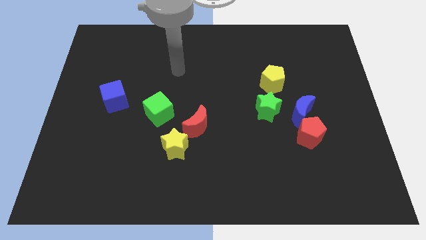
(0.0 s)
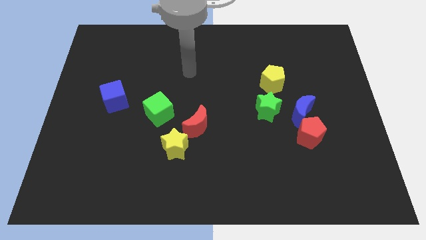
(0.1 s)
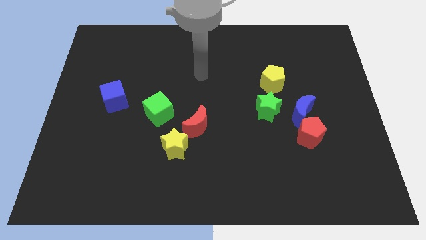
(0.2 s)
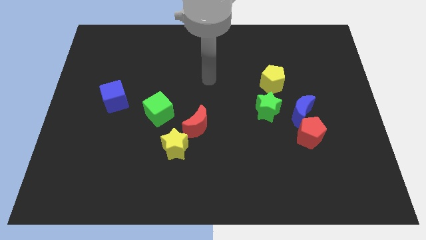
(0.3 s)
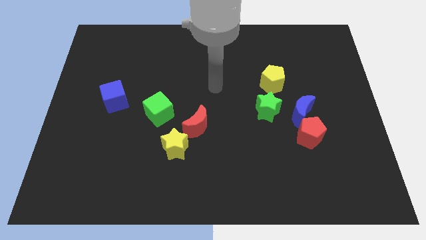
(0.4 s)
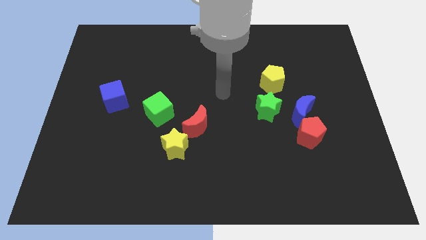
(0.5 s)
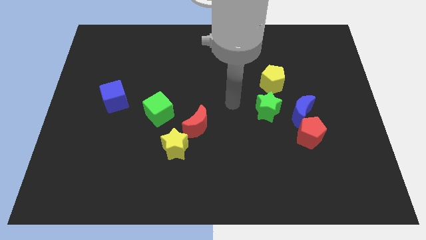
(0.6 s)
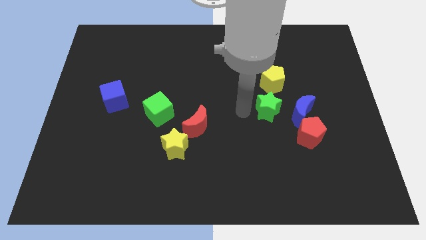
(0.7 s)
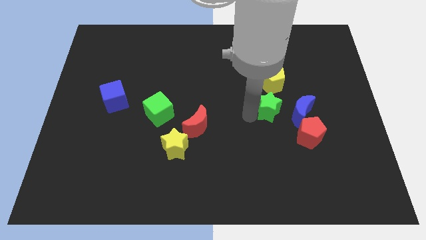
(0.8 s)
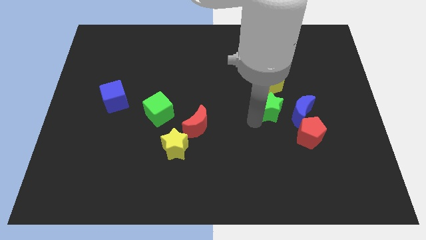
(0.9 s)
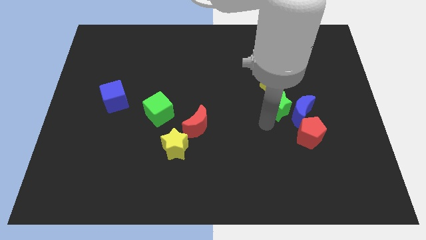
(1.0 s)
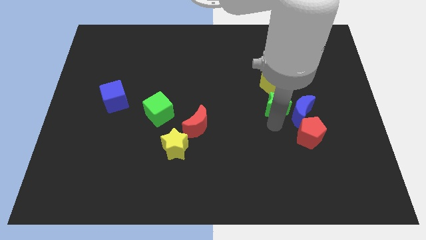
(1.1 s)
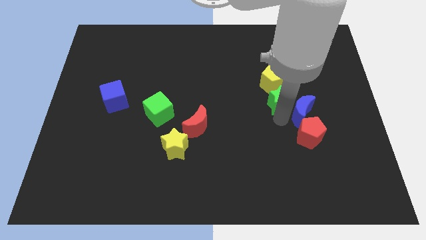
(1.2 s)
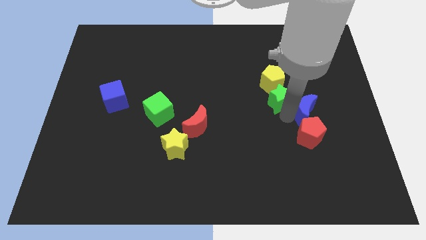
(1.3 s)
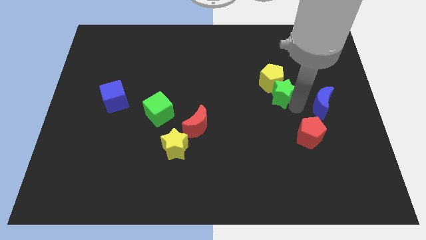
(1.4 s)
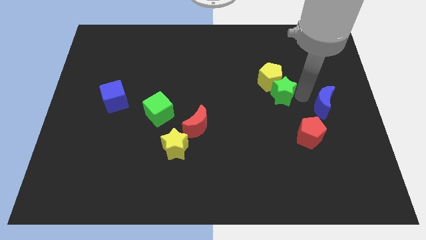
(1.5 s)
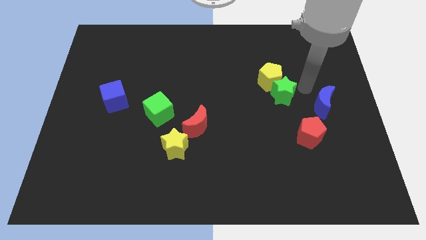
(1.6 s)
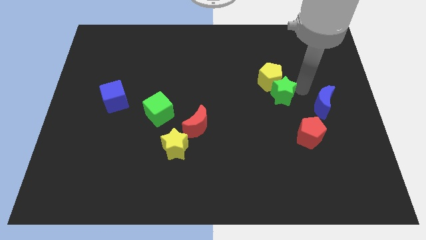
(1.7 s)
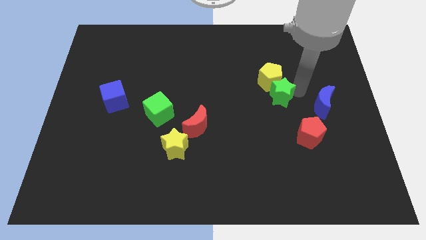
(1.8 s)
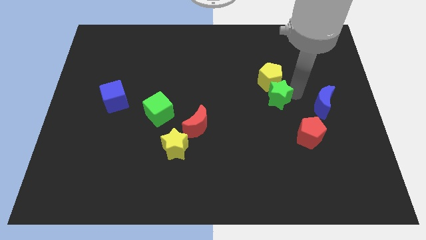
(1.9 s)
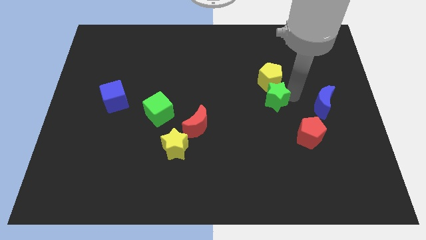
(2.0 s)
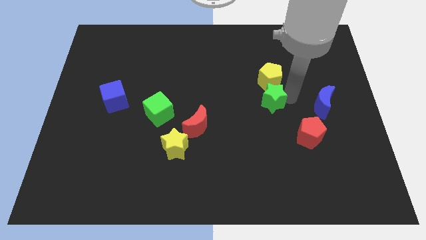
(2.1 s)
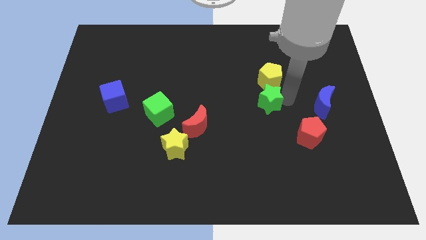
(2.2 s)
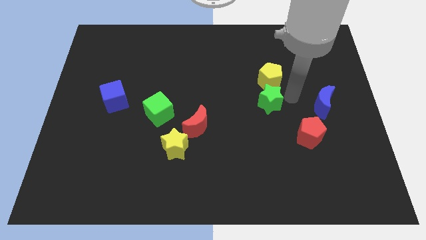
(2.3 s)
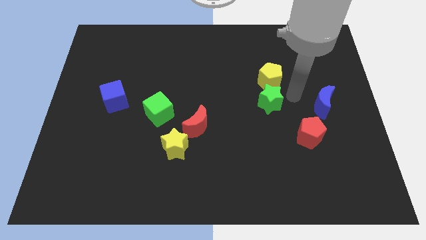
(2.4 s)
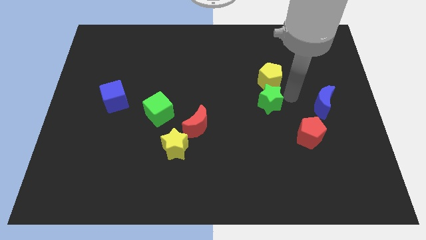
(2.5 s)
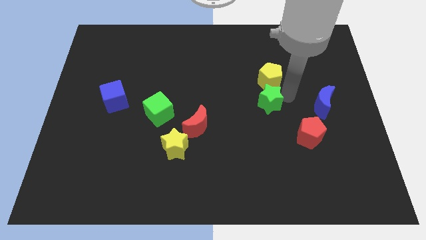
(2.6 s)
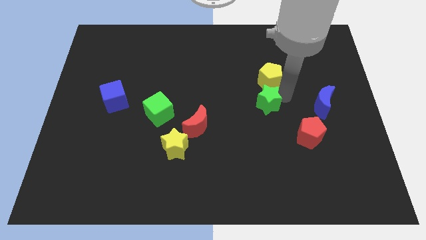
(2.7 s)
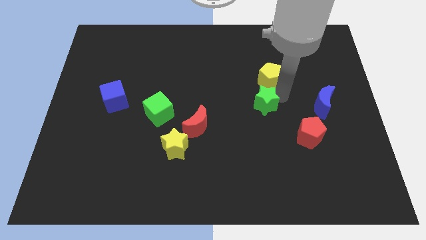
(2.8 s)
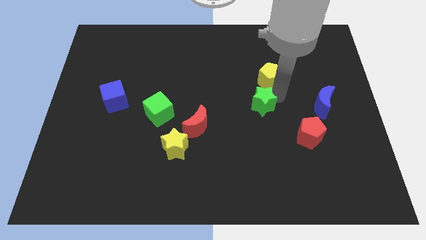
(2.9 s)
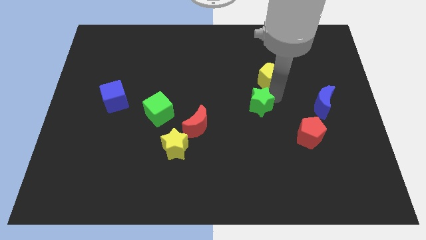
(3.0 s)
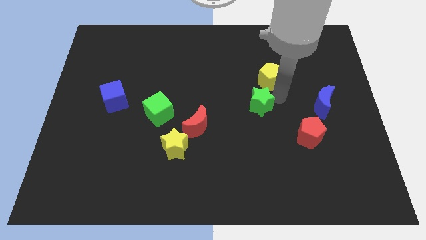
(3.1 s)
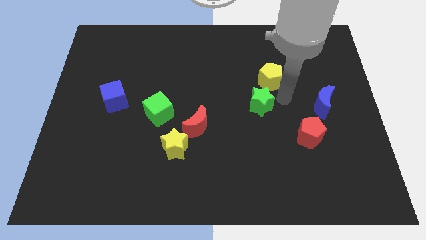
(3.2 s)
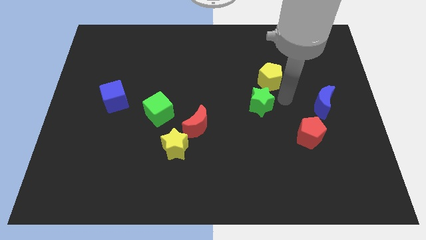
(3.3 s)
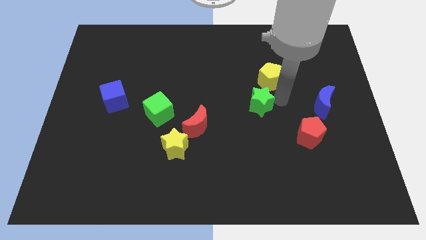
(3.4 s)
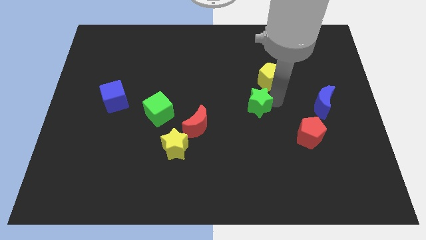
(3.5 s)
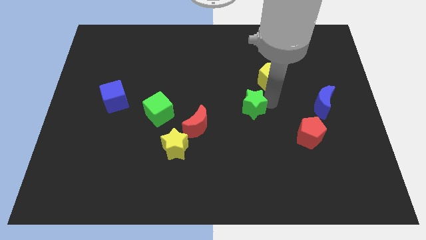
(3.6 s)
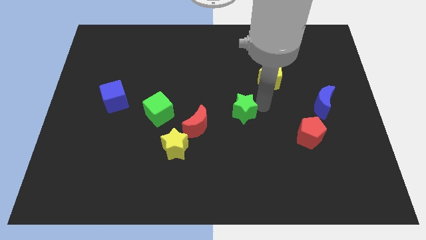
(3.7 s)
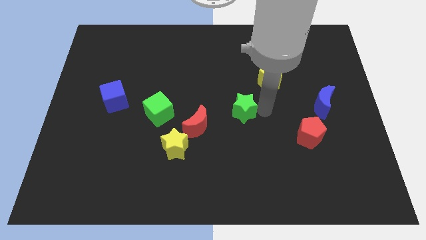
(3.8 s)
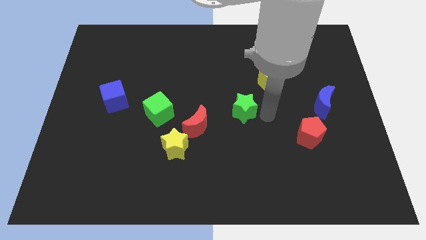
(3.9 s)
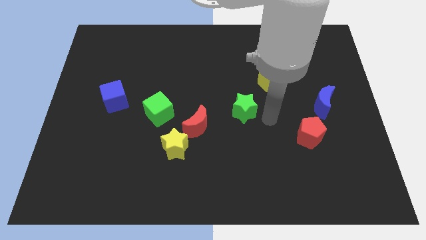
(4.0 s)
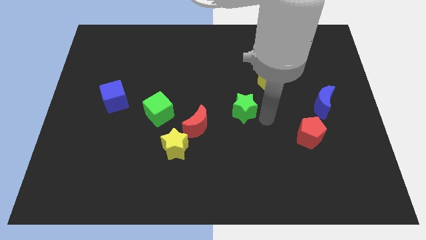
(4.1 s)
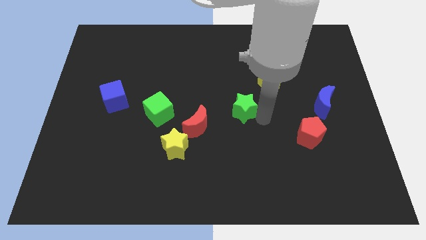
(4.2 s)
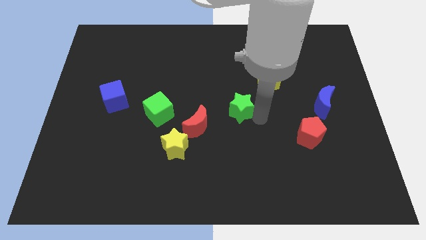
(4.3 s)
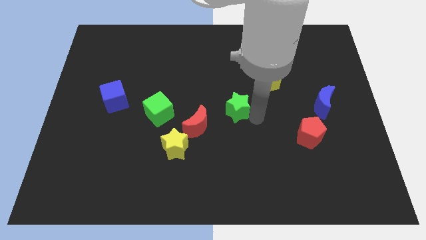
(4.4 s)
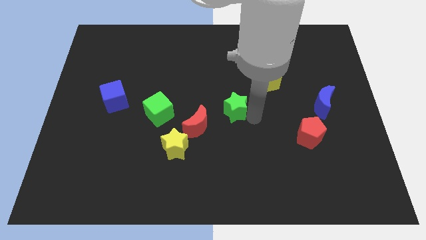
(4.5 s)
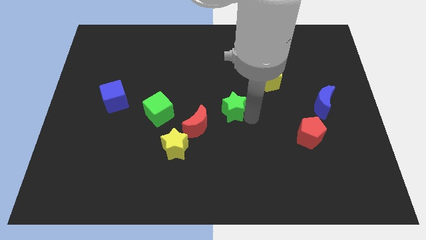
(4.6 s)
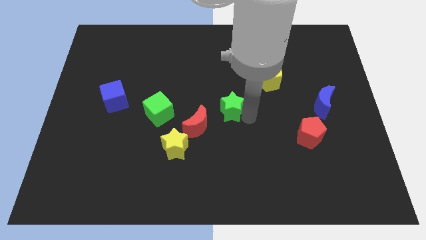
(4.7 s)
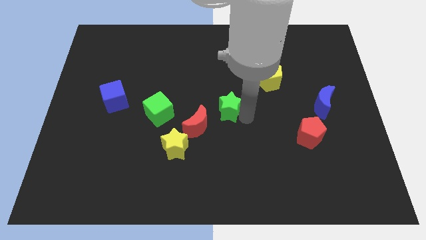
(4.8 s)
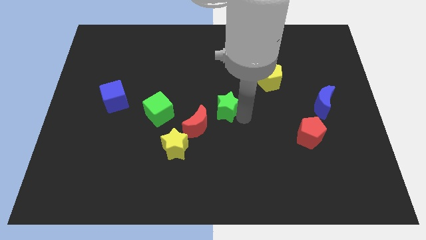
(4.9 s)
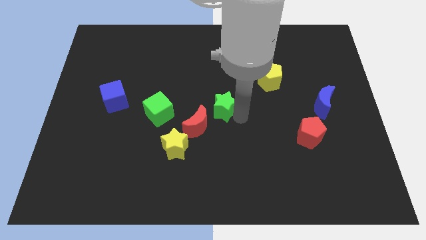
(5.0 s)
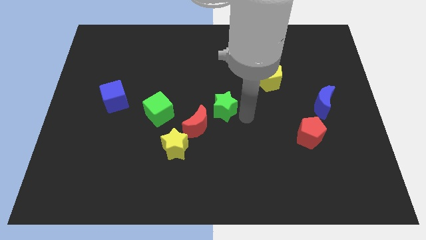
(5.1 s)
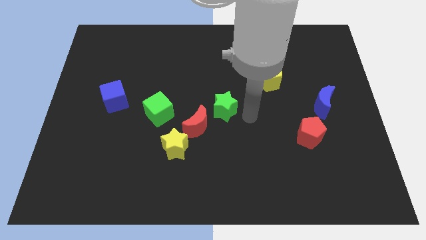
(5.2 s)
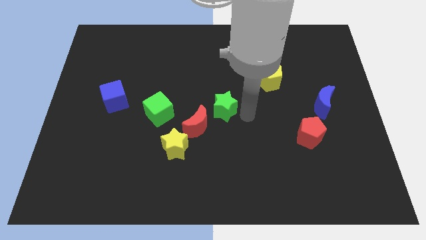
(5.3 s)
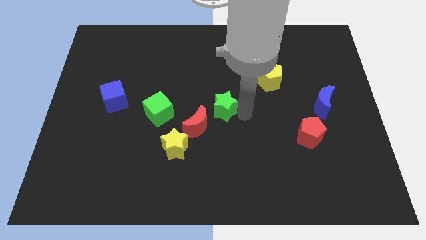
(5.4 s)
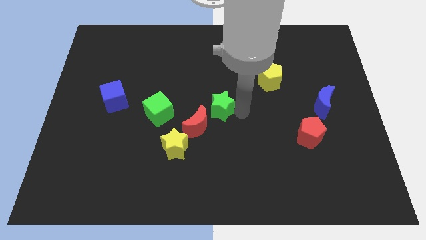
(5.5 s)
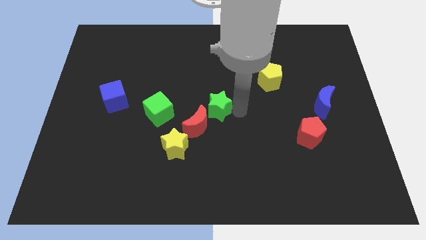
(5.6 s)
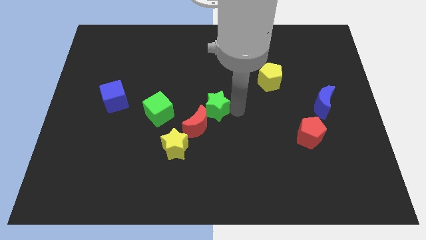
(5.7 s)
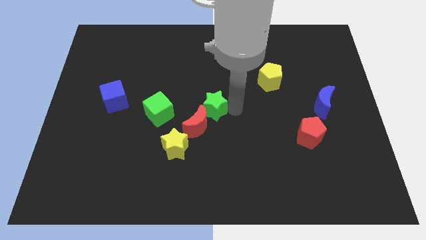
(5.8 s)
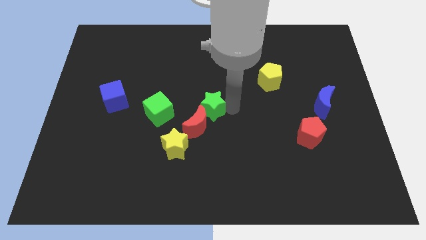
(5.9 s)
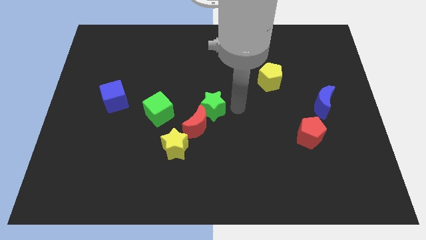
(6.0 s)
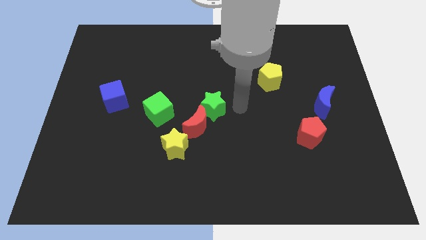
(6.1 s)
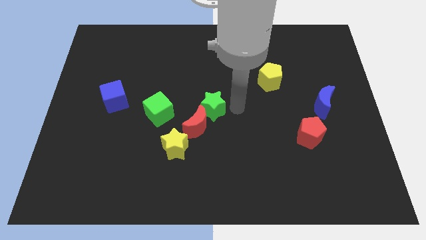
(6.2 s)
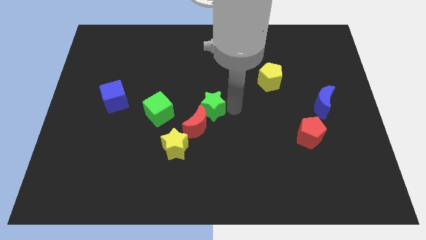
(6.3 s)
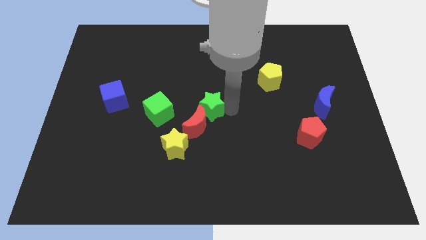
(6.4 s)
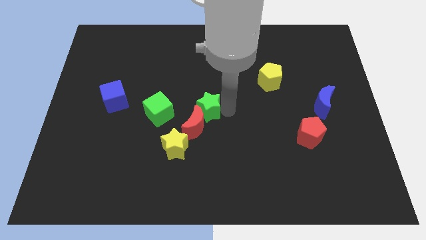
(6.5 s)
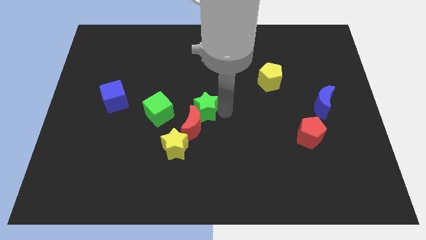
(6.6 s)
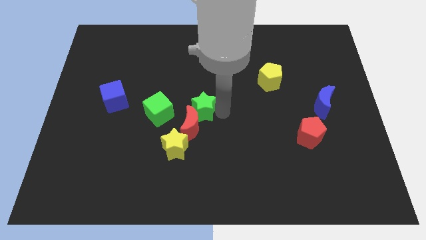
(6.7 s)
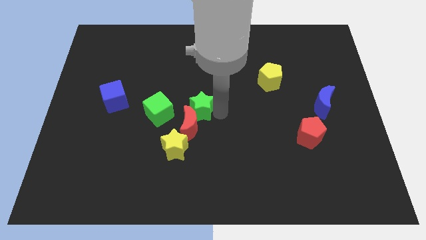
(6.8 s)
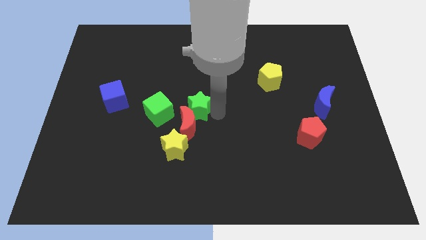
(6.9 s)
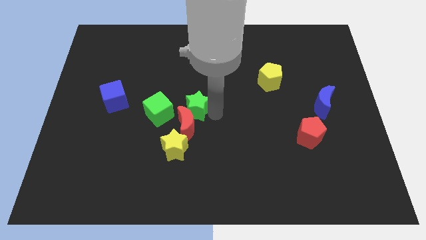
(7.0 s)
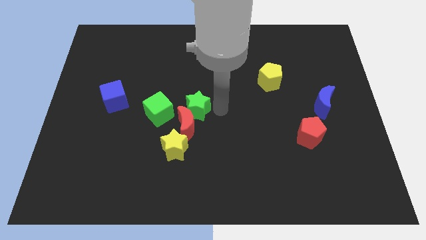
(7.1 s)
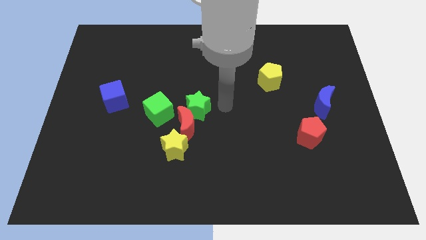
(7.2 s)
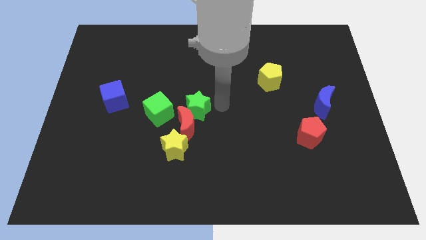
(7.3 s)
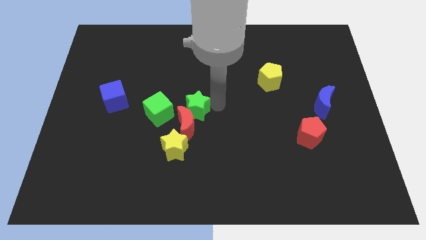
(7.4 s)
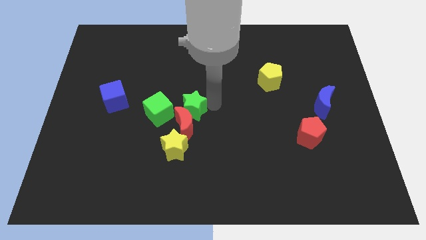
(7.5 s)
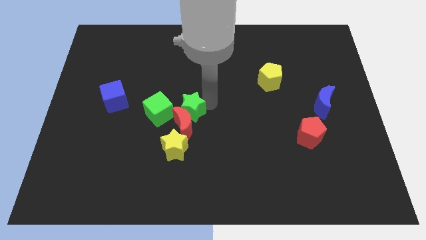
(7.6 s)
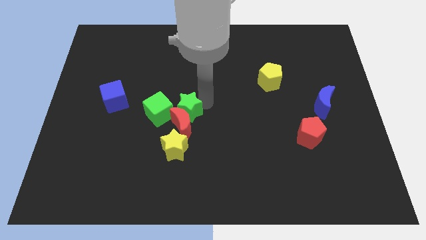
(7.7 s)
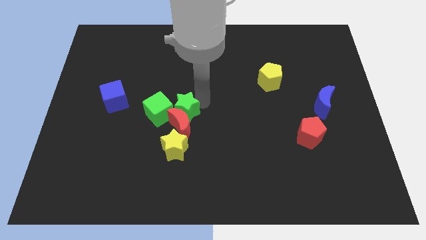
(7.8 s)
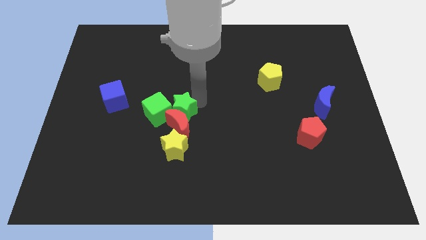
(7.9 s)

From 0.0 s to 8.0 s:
put the green star next to the green cube
